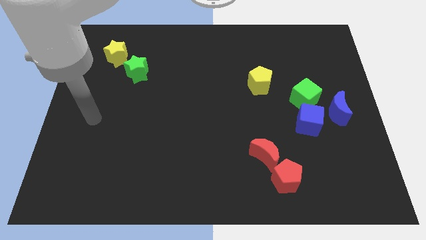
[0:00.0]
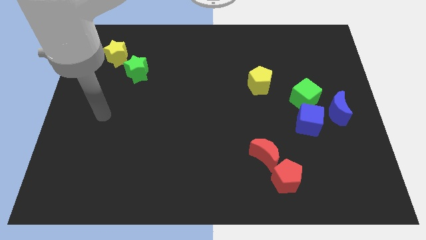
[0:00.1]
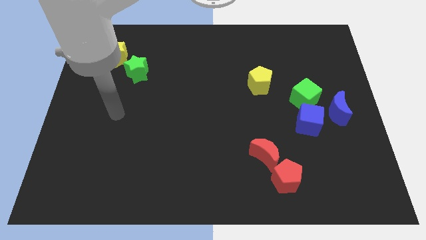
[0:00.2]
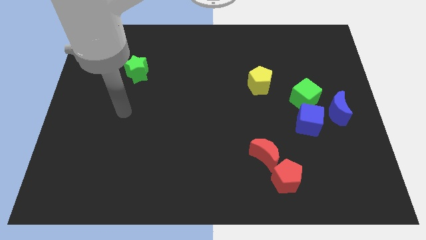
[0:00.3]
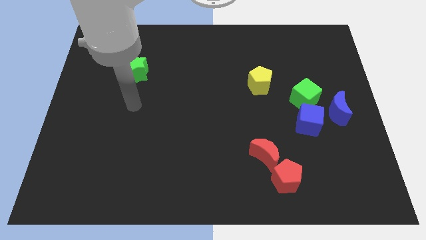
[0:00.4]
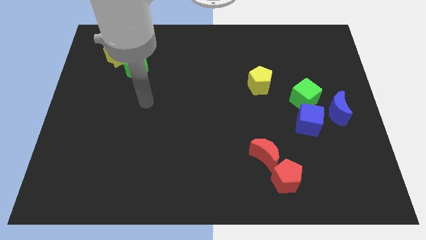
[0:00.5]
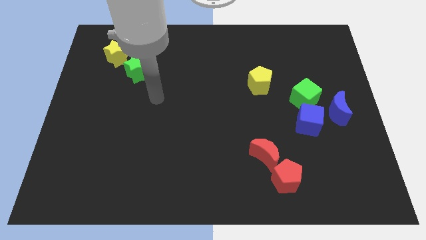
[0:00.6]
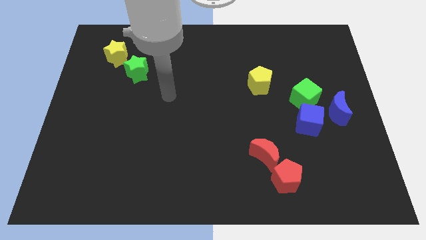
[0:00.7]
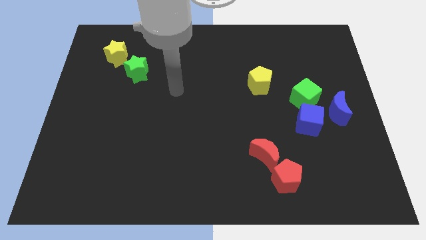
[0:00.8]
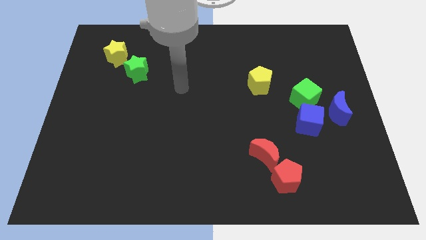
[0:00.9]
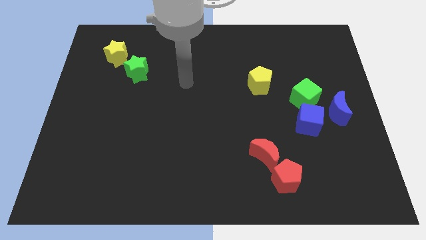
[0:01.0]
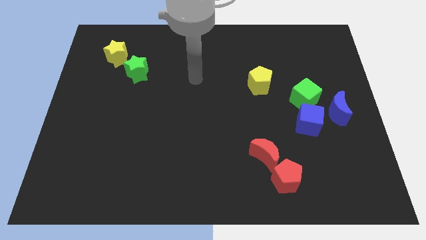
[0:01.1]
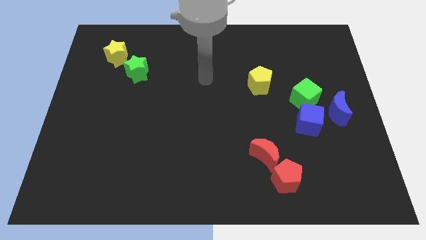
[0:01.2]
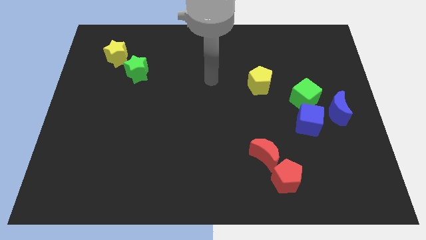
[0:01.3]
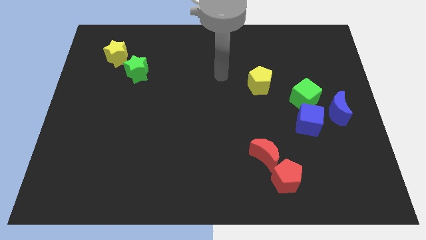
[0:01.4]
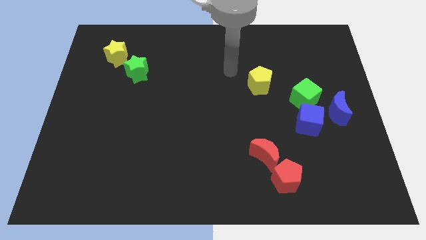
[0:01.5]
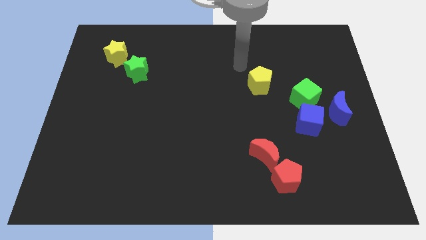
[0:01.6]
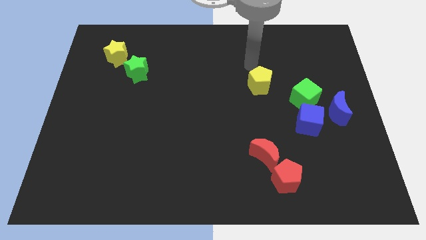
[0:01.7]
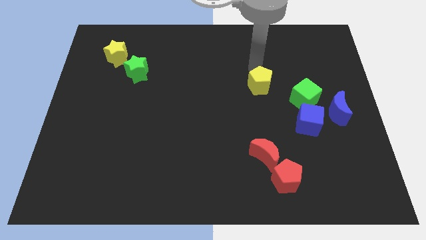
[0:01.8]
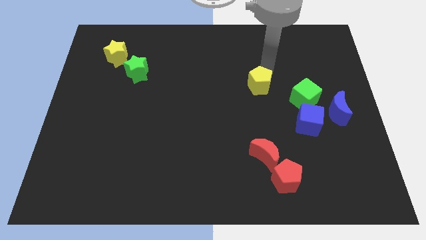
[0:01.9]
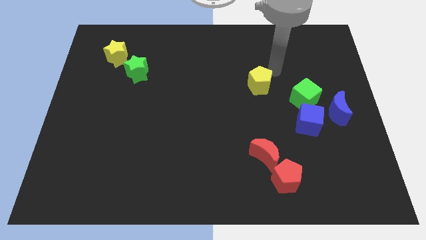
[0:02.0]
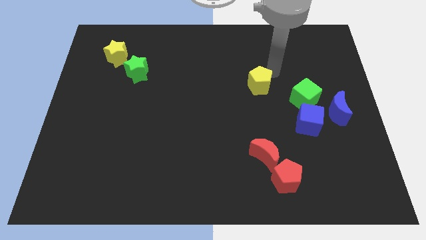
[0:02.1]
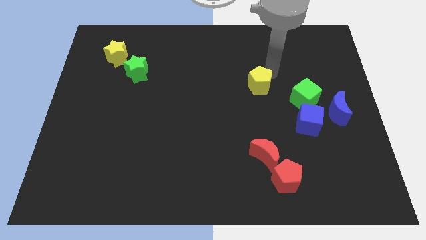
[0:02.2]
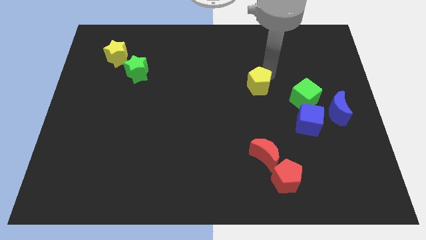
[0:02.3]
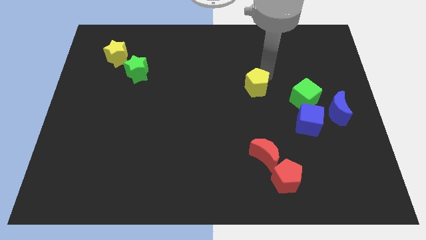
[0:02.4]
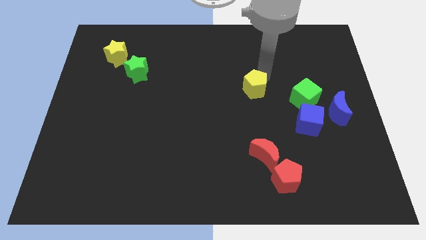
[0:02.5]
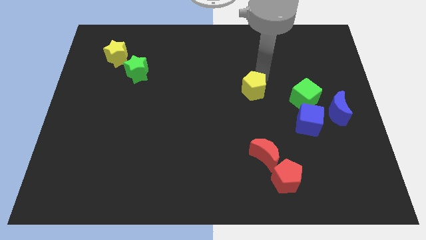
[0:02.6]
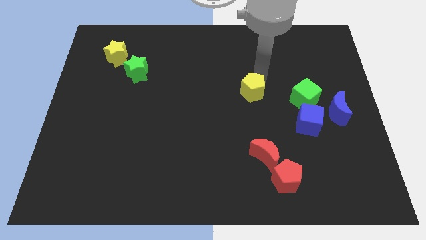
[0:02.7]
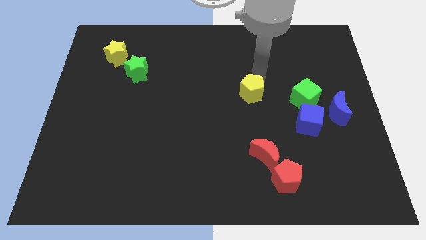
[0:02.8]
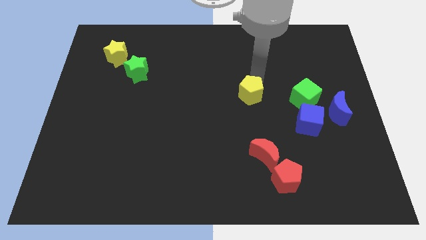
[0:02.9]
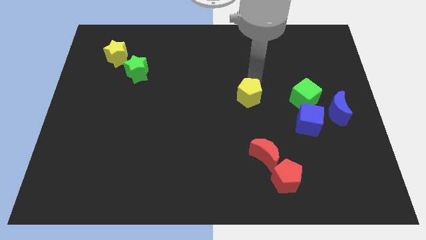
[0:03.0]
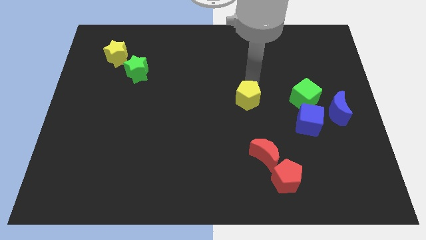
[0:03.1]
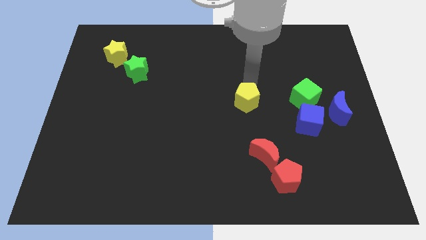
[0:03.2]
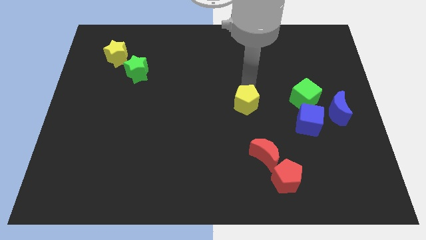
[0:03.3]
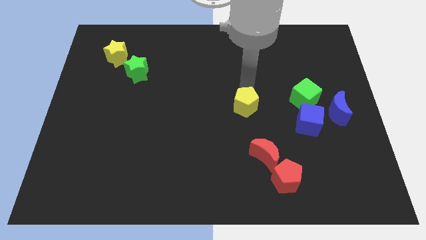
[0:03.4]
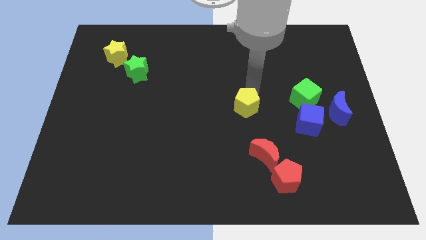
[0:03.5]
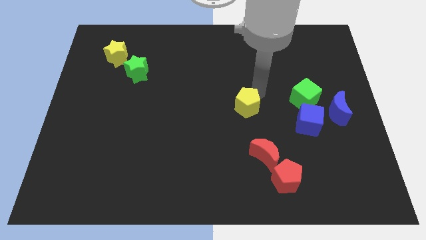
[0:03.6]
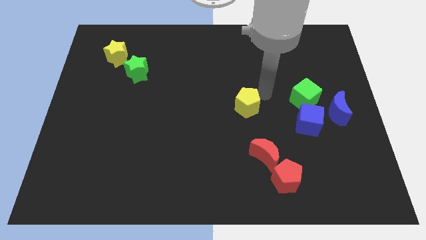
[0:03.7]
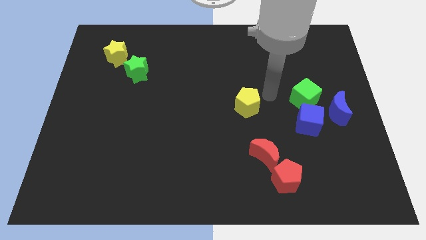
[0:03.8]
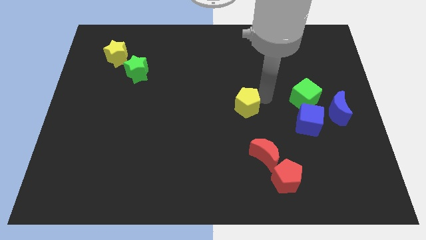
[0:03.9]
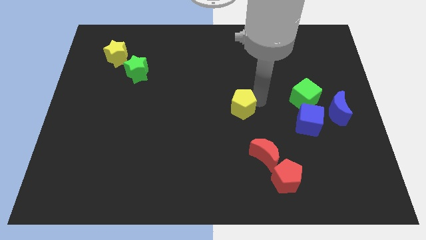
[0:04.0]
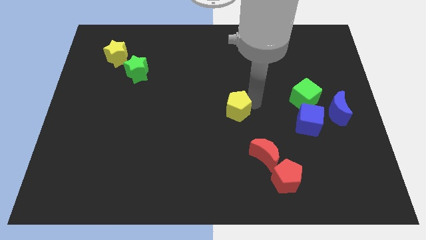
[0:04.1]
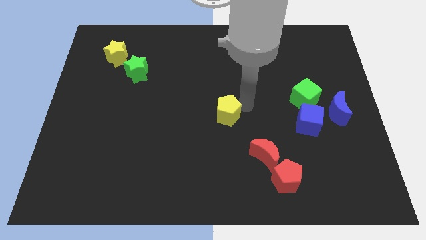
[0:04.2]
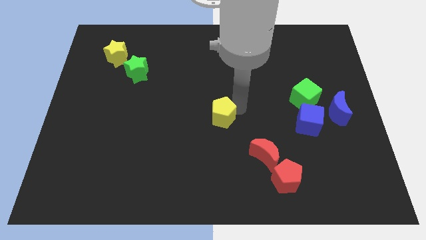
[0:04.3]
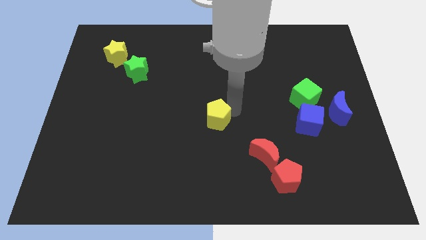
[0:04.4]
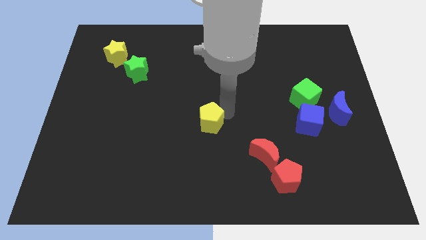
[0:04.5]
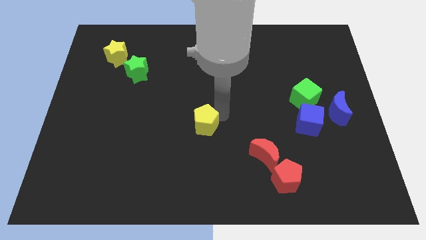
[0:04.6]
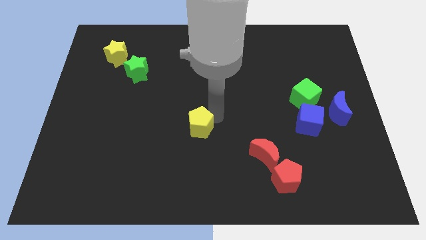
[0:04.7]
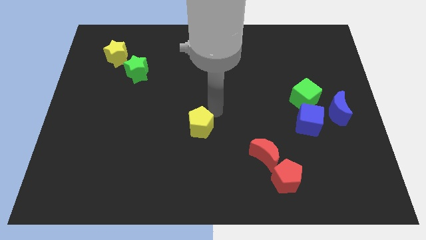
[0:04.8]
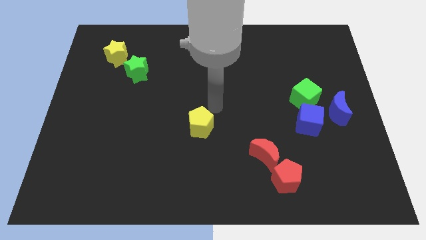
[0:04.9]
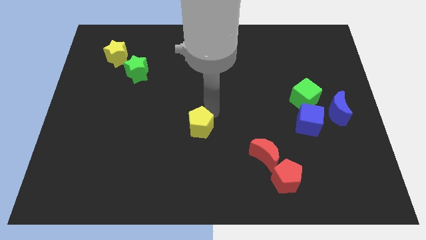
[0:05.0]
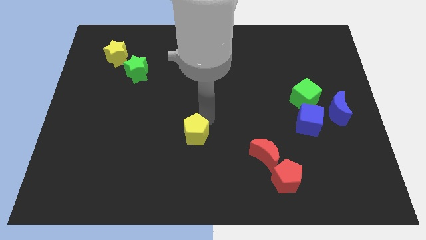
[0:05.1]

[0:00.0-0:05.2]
slide the yellow pentagon downwards and then to the left

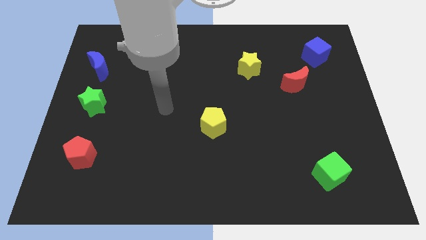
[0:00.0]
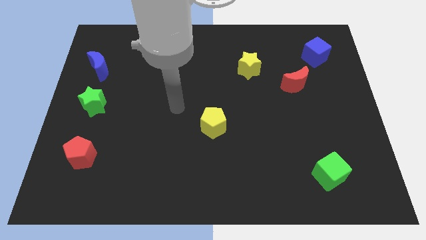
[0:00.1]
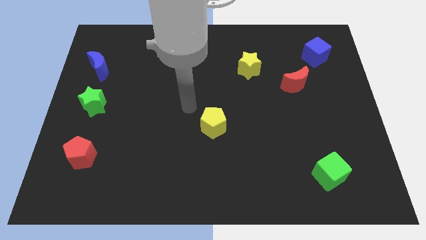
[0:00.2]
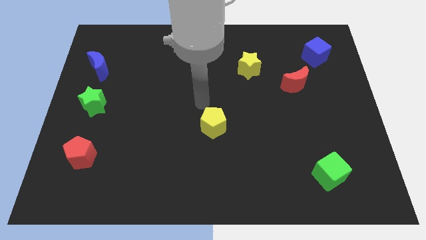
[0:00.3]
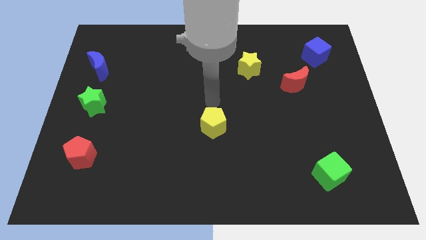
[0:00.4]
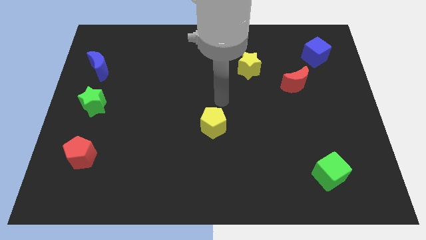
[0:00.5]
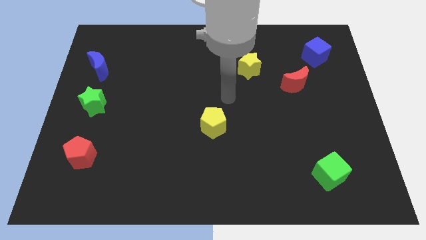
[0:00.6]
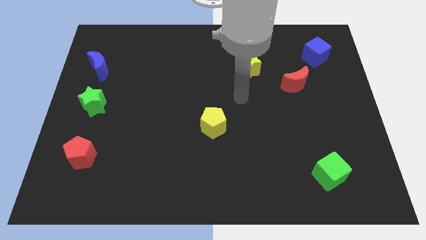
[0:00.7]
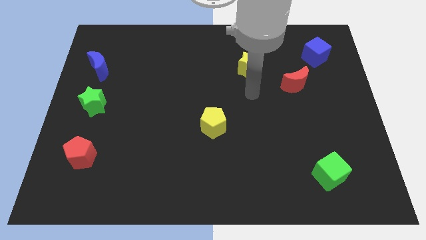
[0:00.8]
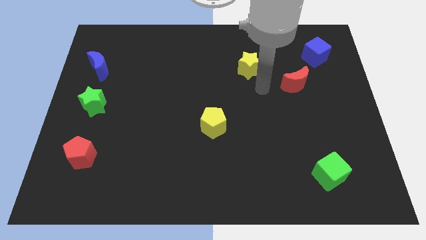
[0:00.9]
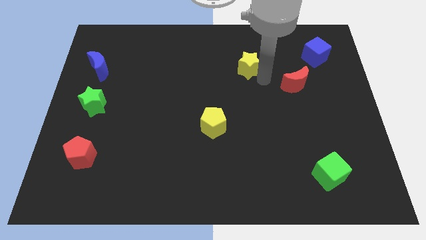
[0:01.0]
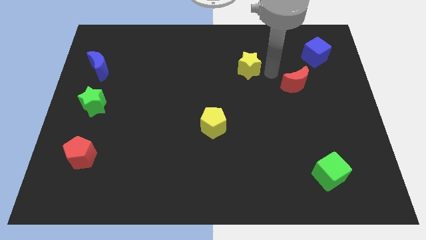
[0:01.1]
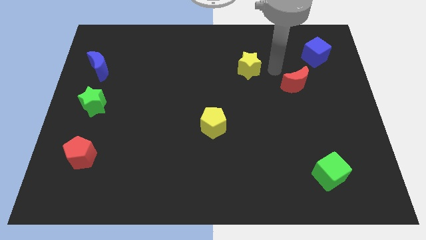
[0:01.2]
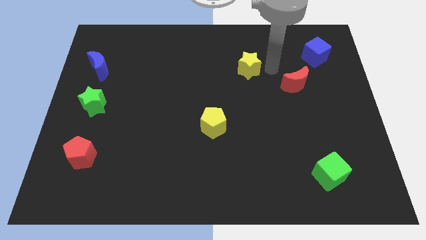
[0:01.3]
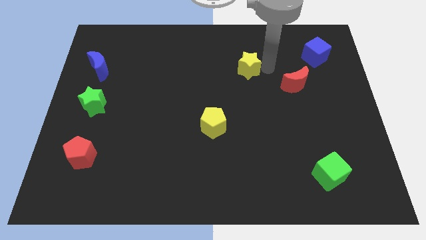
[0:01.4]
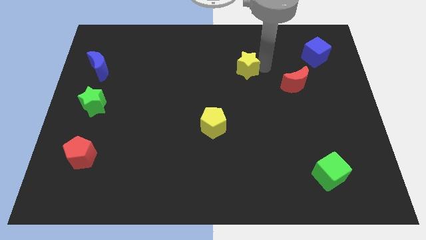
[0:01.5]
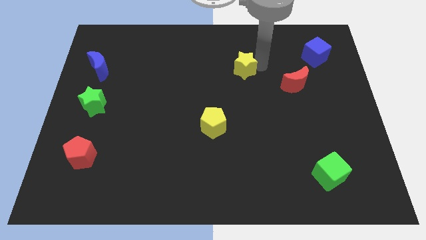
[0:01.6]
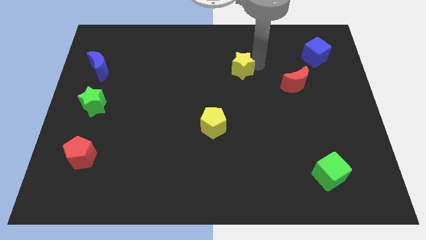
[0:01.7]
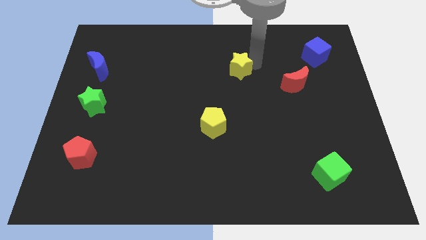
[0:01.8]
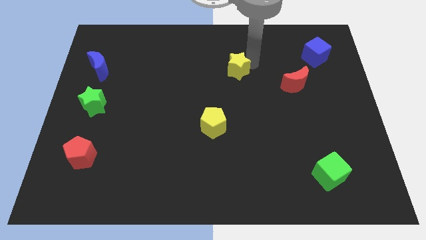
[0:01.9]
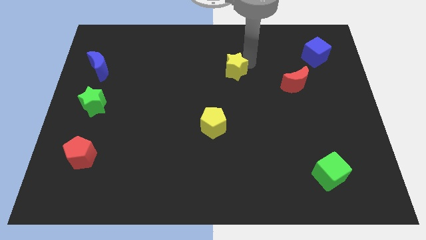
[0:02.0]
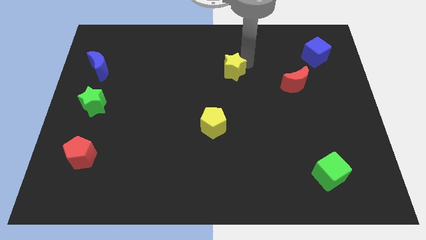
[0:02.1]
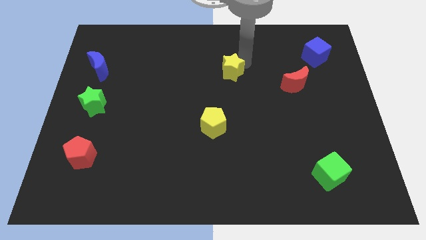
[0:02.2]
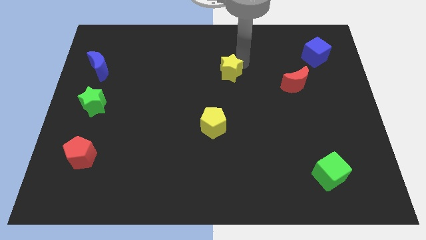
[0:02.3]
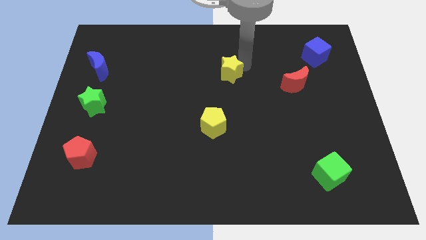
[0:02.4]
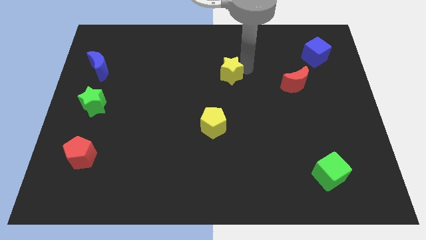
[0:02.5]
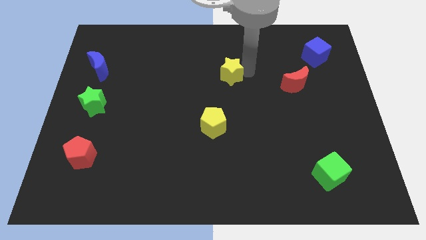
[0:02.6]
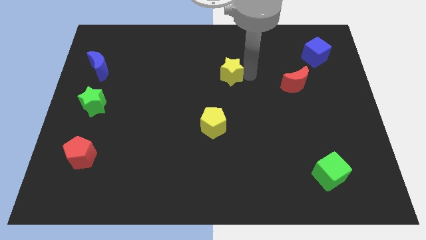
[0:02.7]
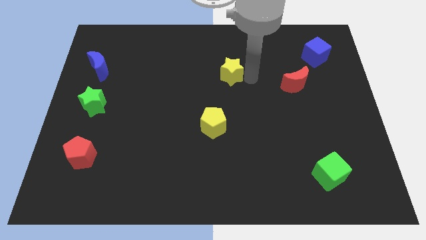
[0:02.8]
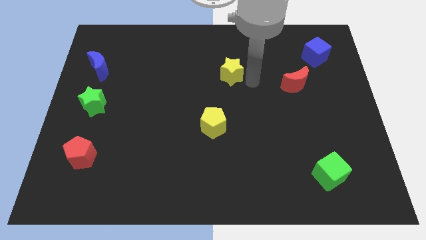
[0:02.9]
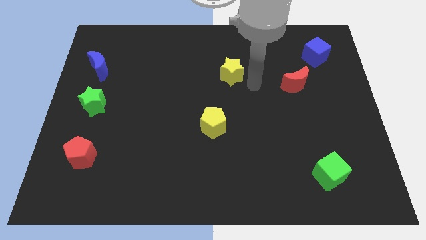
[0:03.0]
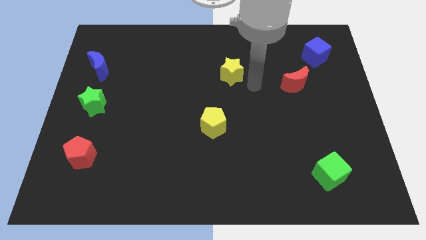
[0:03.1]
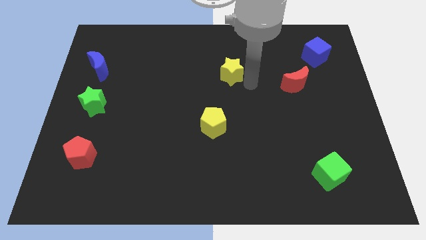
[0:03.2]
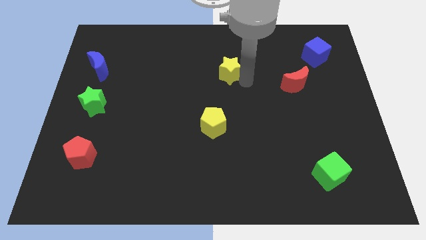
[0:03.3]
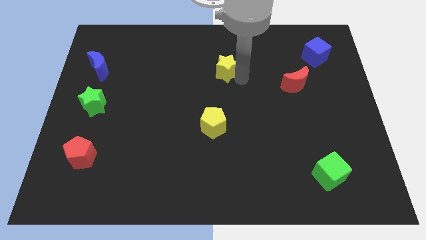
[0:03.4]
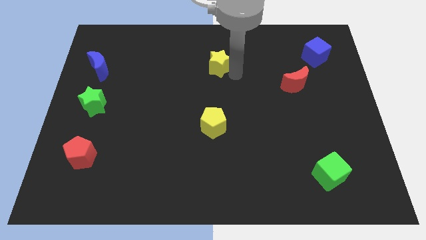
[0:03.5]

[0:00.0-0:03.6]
slide the yellow star a little left
